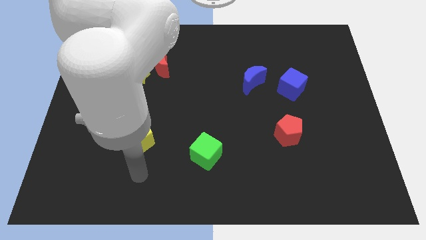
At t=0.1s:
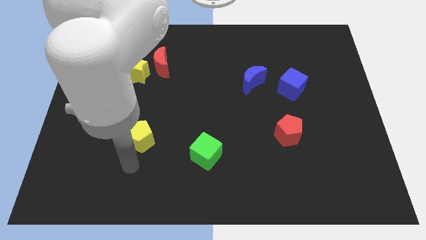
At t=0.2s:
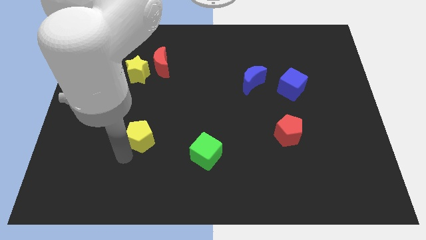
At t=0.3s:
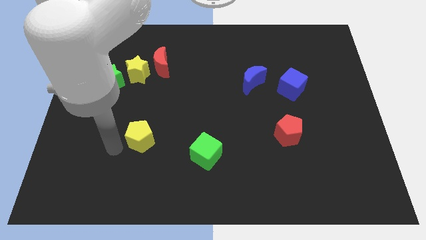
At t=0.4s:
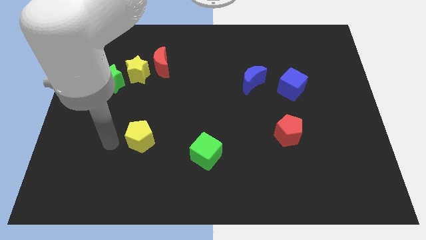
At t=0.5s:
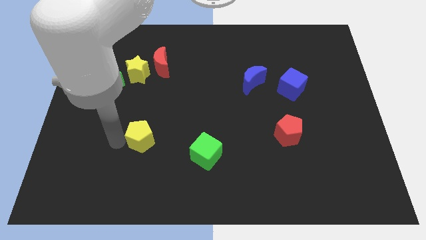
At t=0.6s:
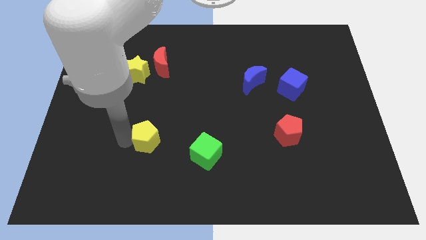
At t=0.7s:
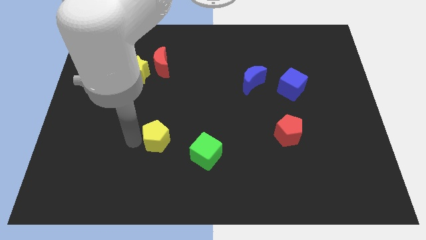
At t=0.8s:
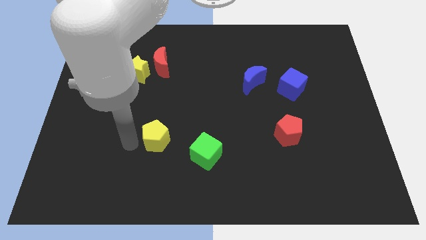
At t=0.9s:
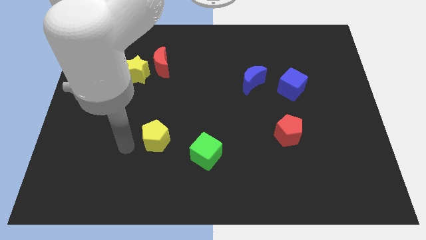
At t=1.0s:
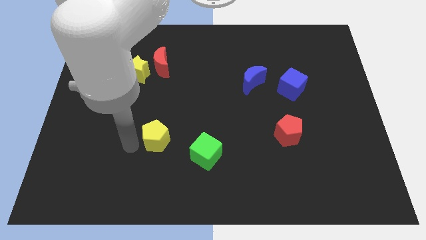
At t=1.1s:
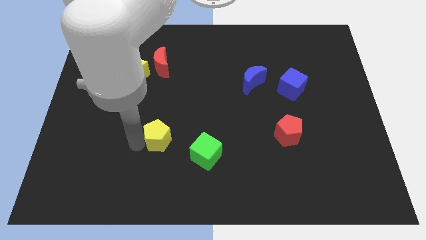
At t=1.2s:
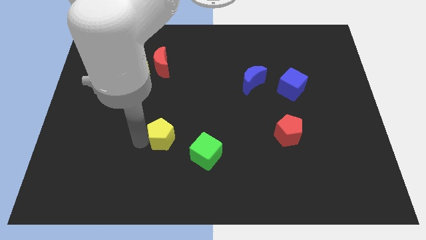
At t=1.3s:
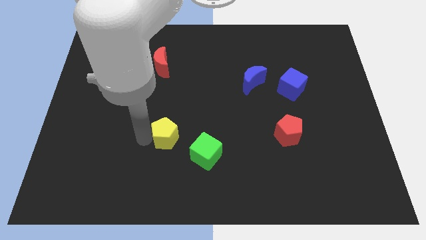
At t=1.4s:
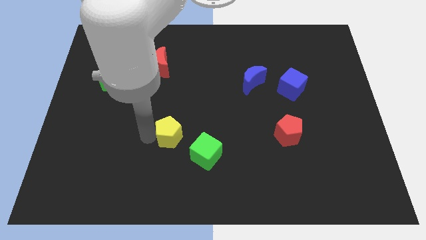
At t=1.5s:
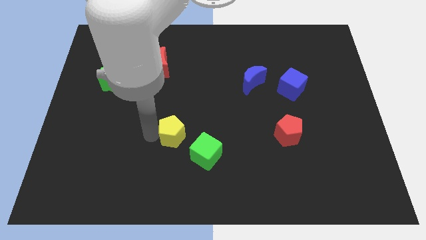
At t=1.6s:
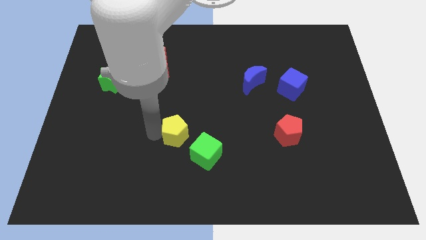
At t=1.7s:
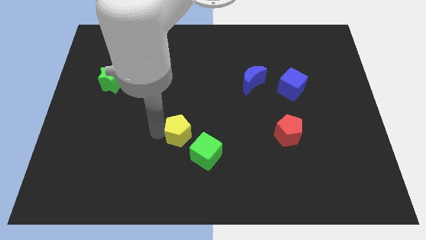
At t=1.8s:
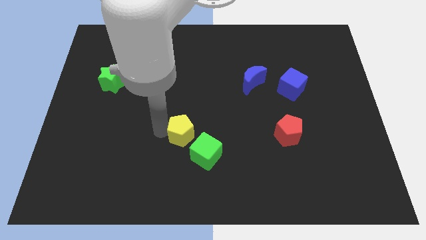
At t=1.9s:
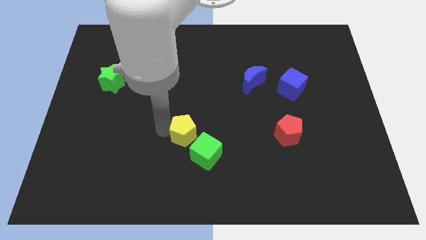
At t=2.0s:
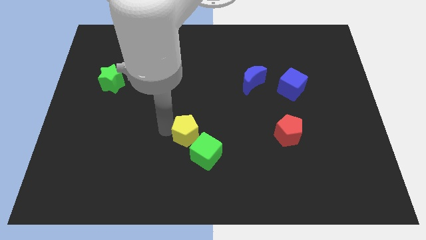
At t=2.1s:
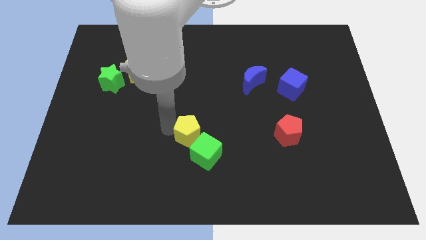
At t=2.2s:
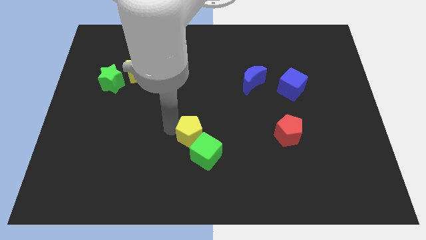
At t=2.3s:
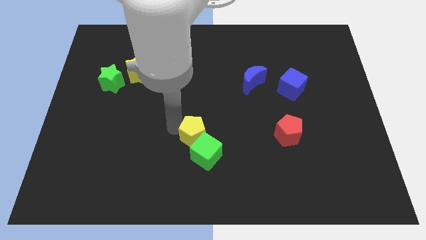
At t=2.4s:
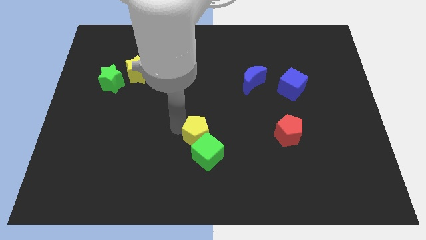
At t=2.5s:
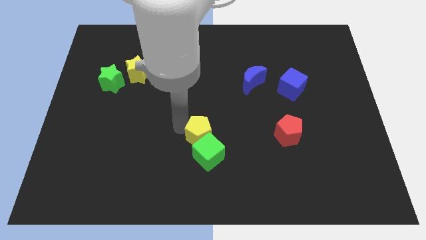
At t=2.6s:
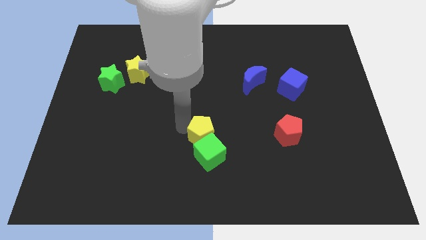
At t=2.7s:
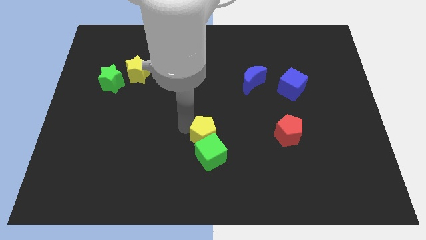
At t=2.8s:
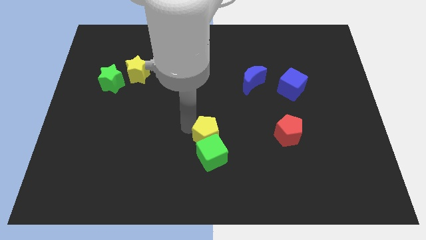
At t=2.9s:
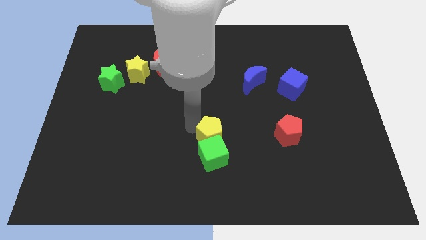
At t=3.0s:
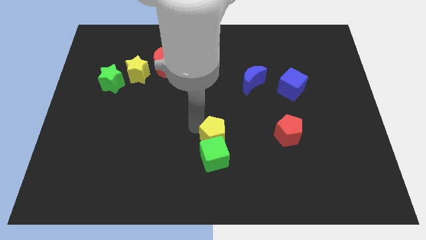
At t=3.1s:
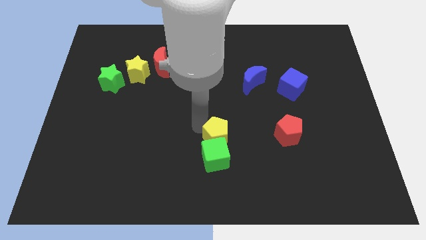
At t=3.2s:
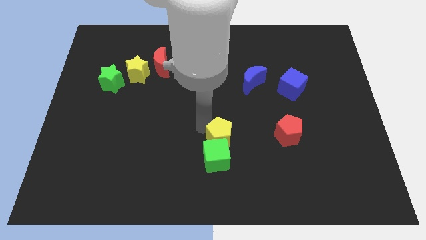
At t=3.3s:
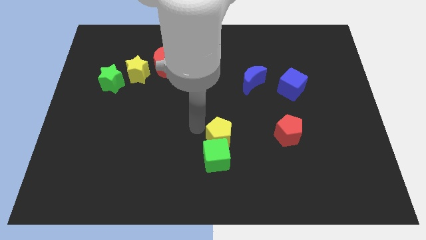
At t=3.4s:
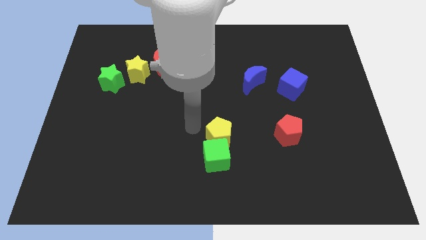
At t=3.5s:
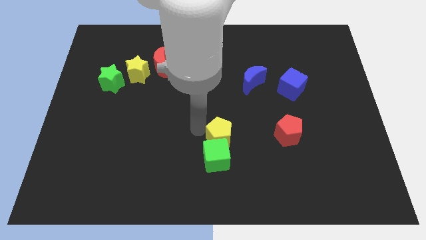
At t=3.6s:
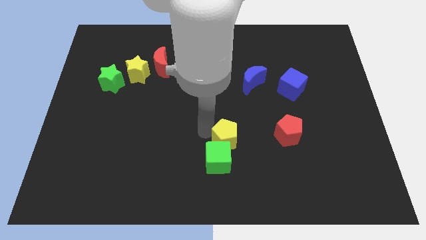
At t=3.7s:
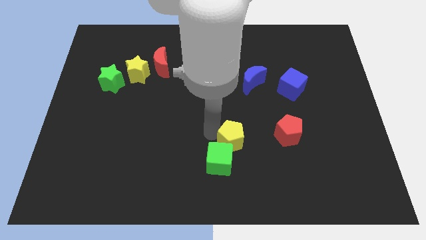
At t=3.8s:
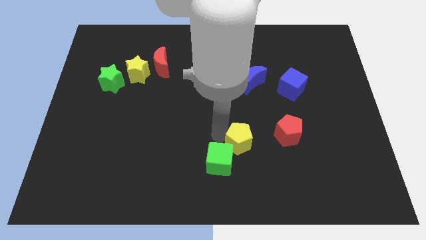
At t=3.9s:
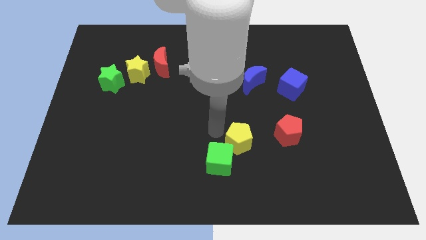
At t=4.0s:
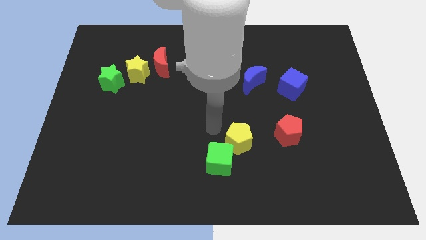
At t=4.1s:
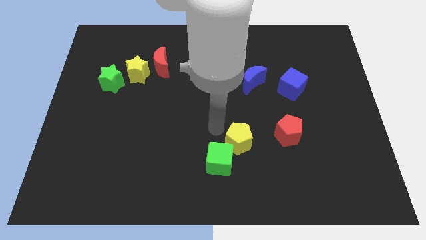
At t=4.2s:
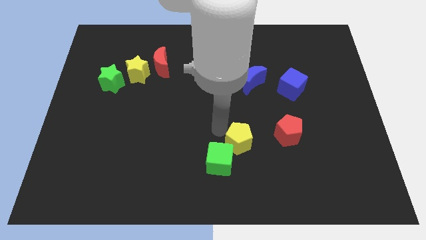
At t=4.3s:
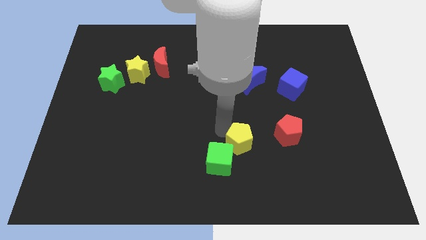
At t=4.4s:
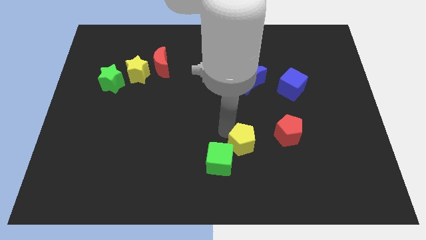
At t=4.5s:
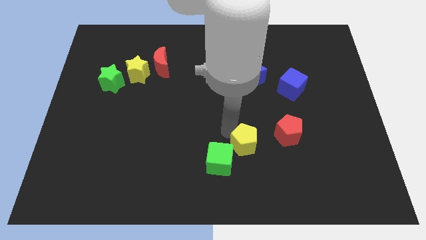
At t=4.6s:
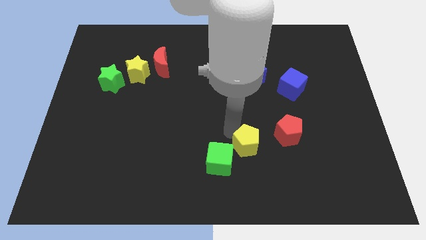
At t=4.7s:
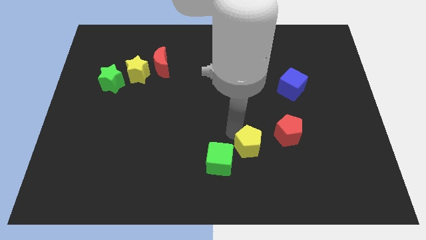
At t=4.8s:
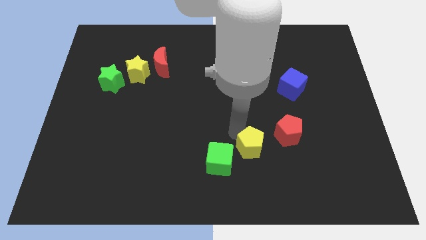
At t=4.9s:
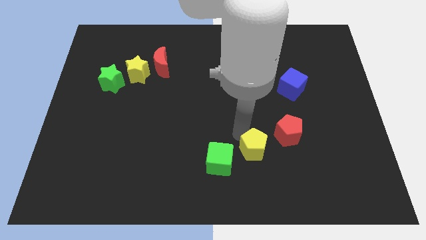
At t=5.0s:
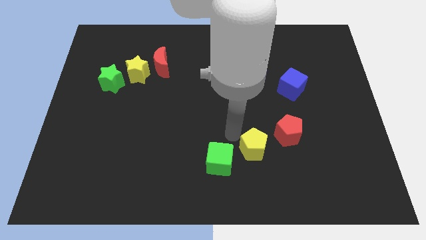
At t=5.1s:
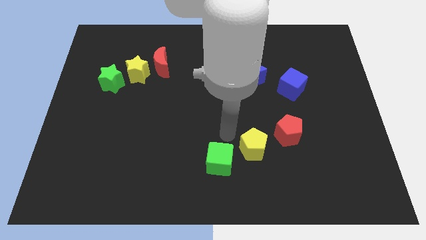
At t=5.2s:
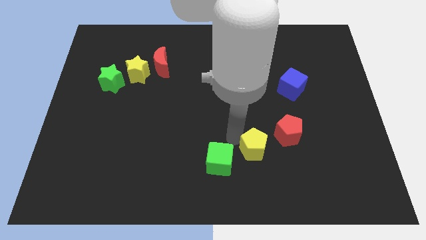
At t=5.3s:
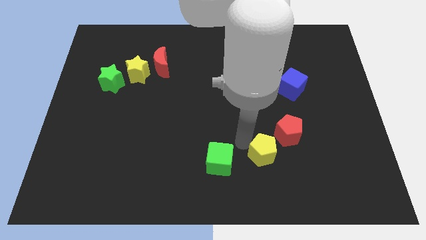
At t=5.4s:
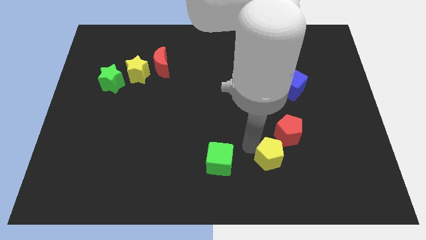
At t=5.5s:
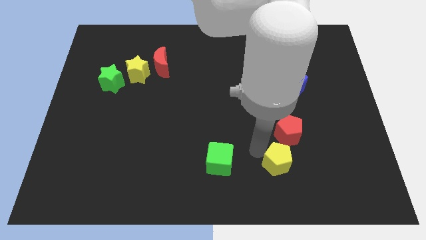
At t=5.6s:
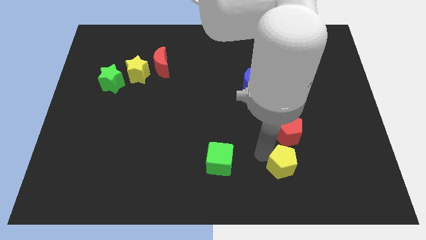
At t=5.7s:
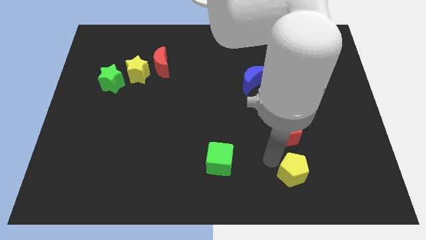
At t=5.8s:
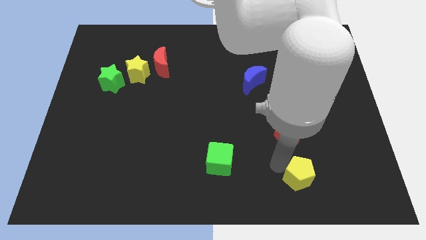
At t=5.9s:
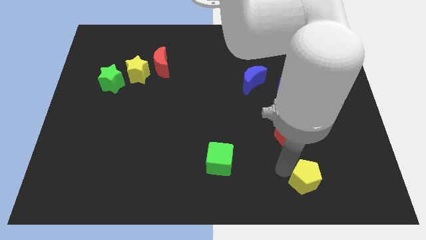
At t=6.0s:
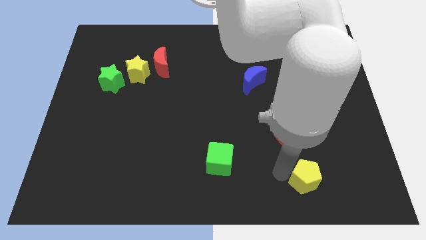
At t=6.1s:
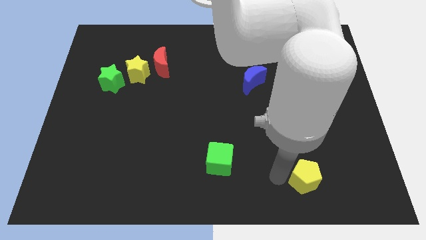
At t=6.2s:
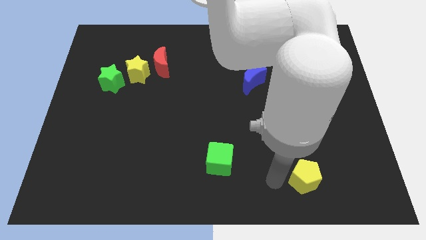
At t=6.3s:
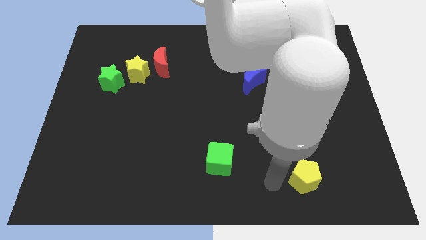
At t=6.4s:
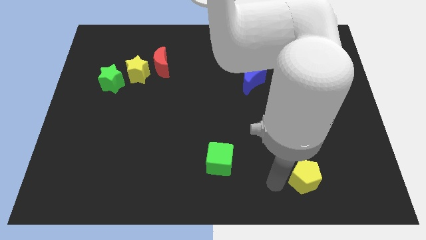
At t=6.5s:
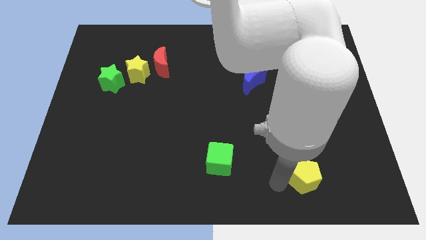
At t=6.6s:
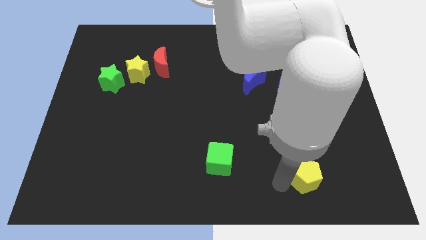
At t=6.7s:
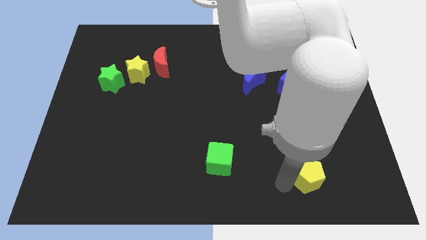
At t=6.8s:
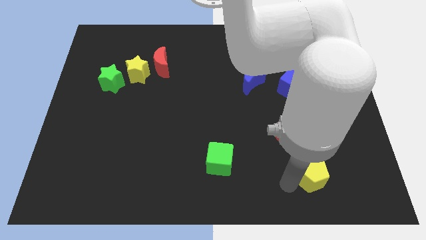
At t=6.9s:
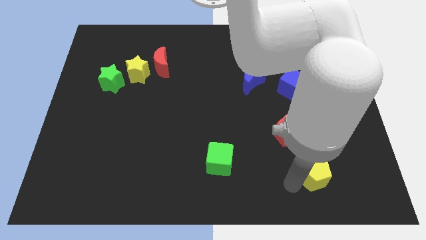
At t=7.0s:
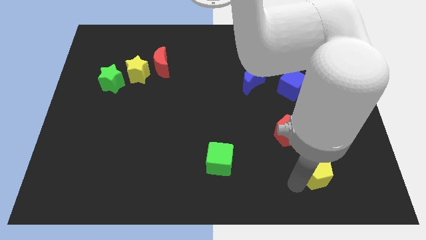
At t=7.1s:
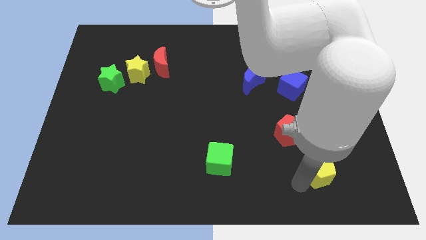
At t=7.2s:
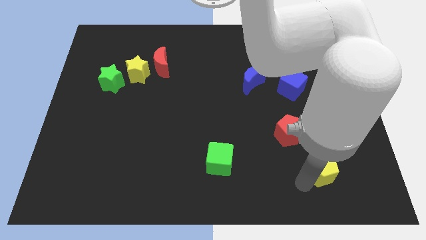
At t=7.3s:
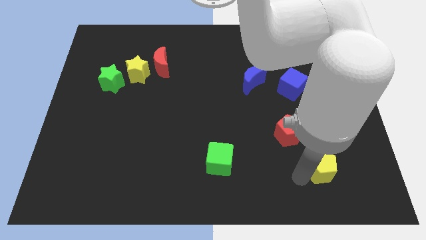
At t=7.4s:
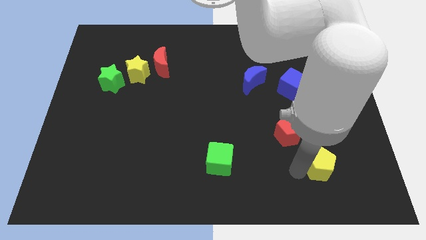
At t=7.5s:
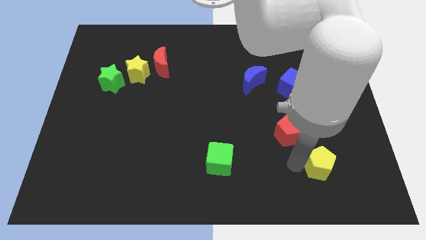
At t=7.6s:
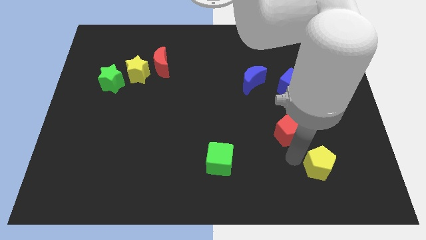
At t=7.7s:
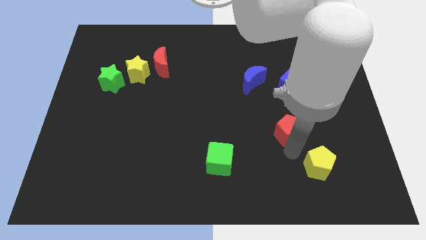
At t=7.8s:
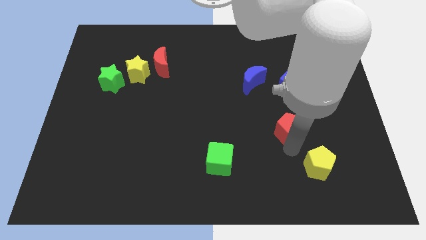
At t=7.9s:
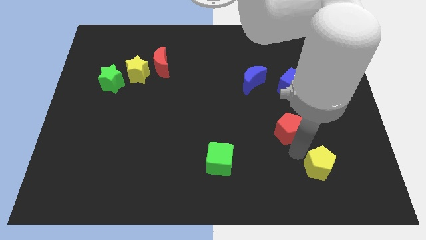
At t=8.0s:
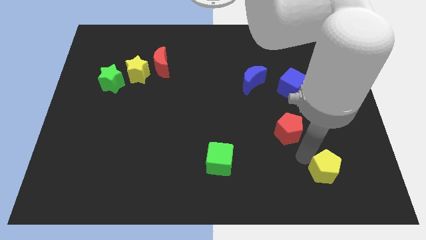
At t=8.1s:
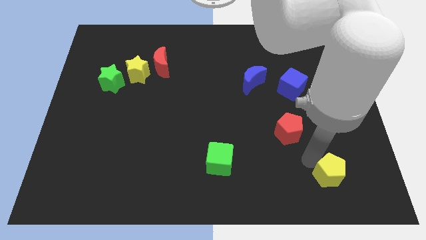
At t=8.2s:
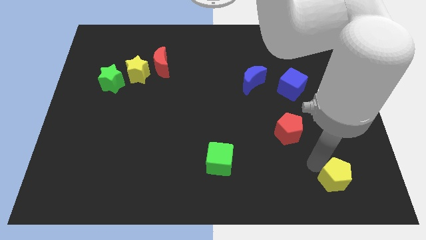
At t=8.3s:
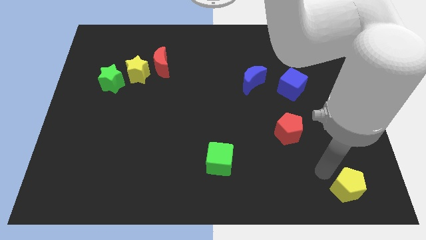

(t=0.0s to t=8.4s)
push the yellow pentagon to the bottom right of the board
